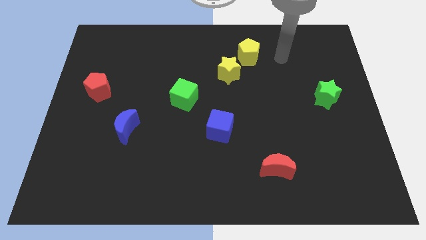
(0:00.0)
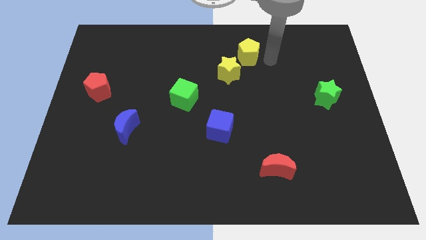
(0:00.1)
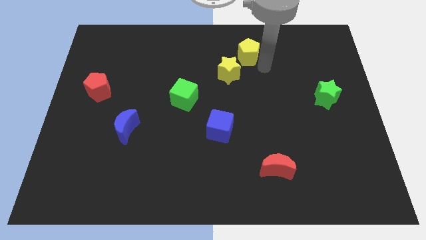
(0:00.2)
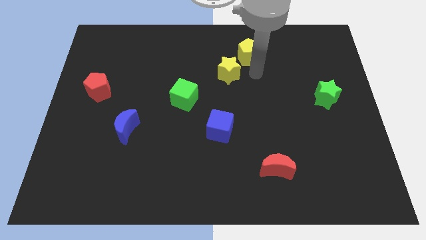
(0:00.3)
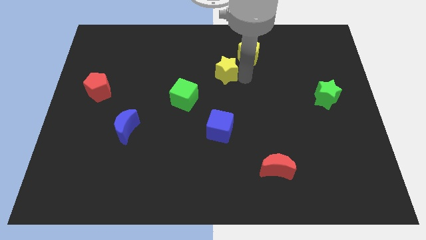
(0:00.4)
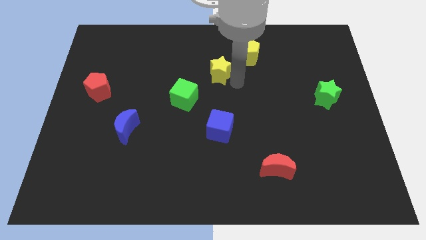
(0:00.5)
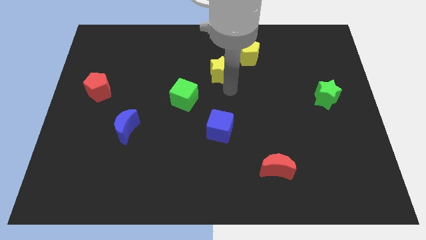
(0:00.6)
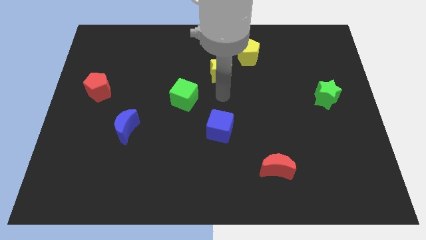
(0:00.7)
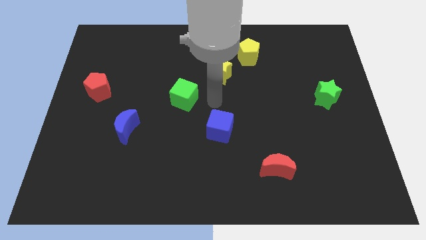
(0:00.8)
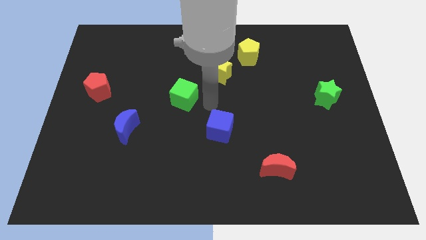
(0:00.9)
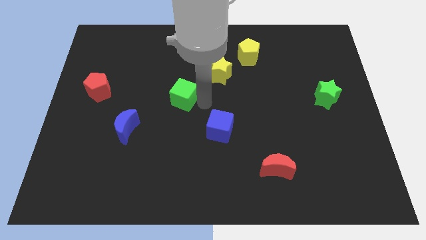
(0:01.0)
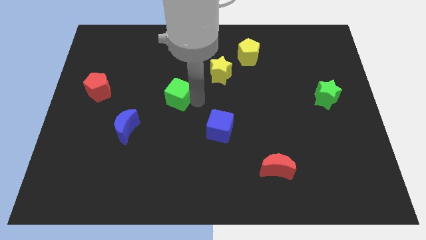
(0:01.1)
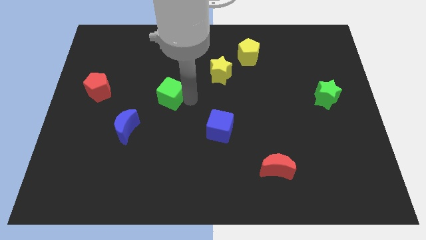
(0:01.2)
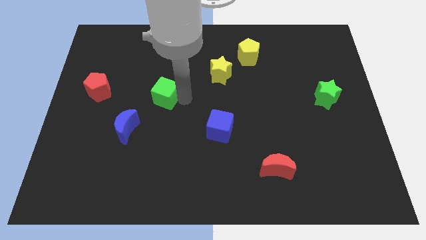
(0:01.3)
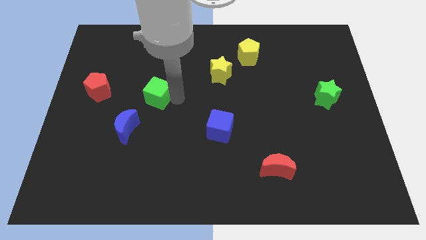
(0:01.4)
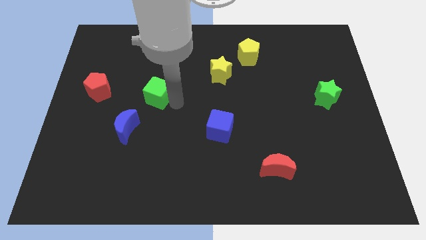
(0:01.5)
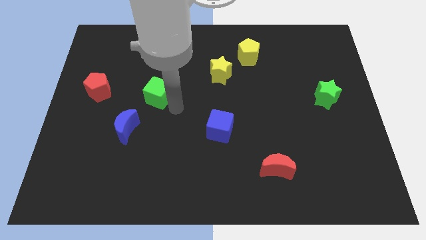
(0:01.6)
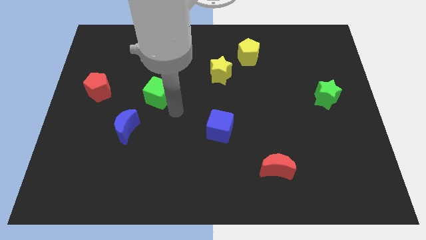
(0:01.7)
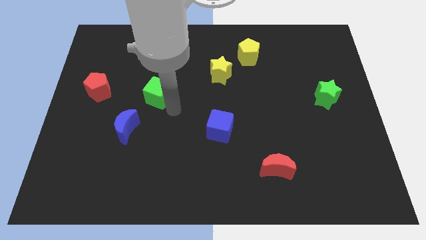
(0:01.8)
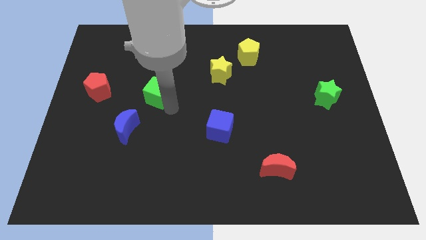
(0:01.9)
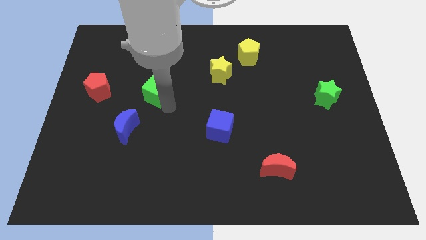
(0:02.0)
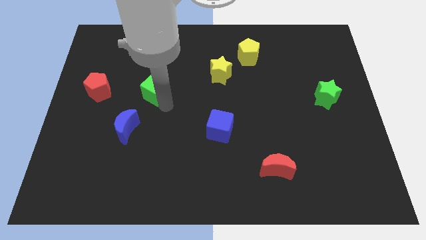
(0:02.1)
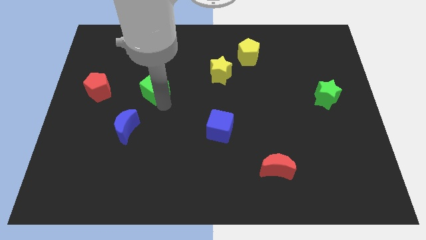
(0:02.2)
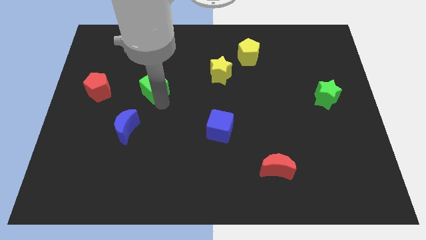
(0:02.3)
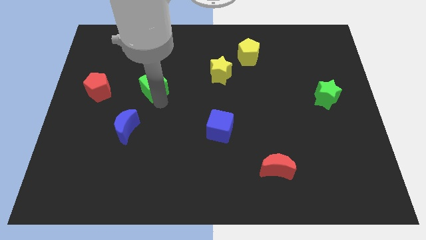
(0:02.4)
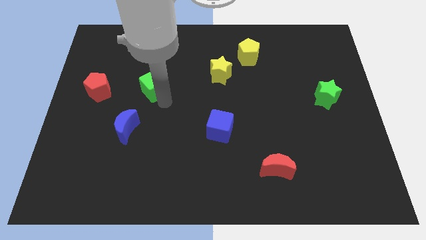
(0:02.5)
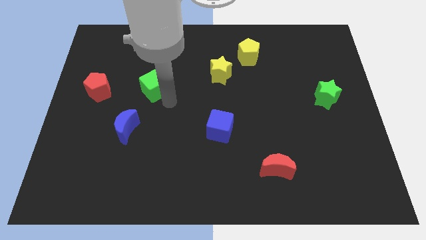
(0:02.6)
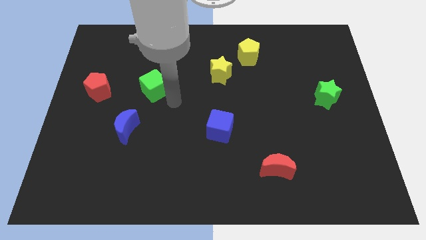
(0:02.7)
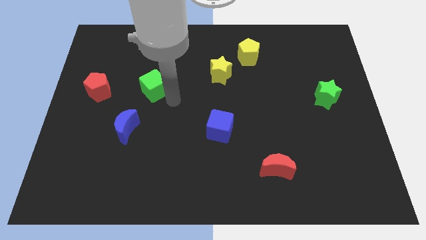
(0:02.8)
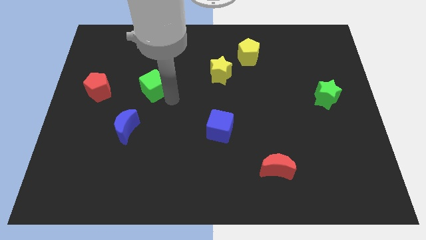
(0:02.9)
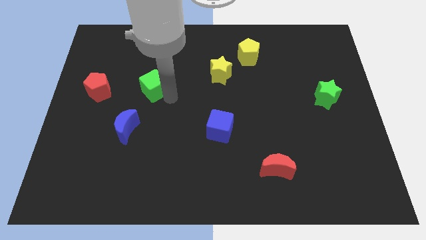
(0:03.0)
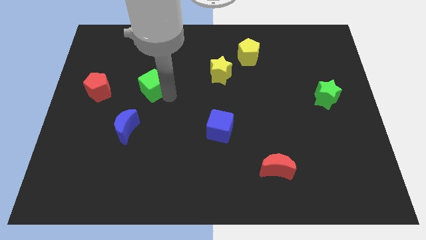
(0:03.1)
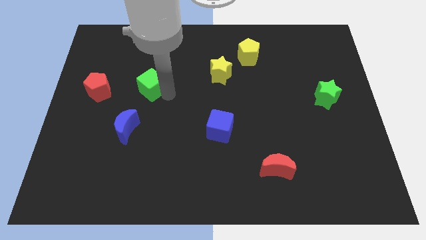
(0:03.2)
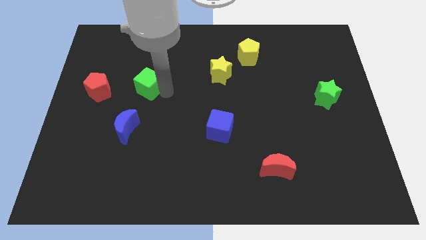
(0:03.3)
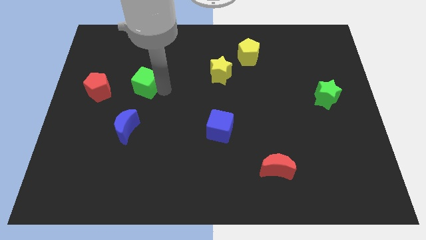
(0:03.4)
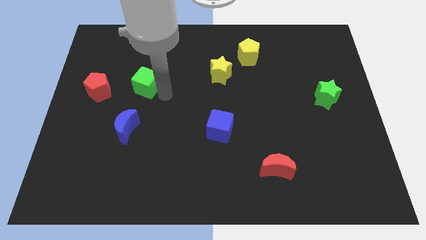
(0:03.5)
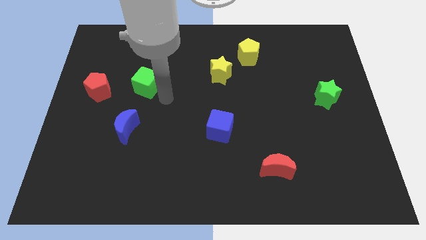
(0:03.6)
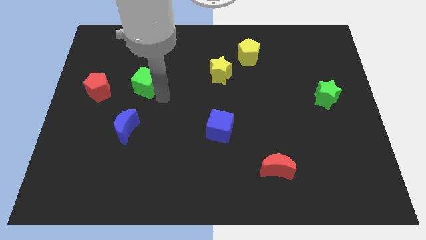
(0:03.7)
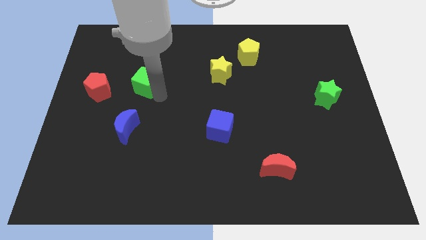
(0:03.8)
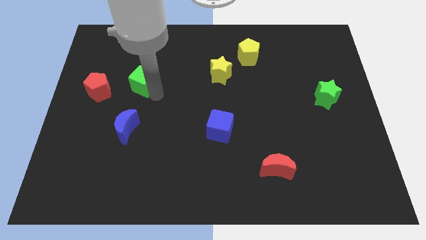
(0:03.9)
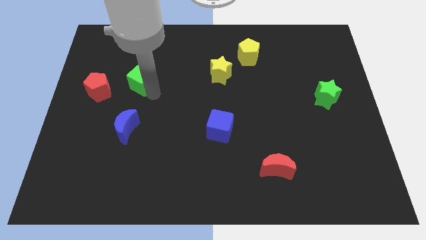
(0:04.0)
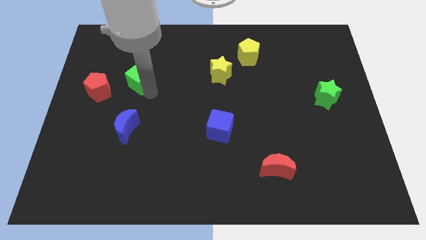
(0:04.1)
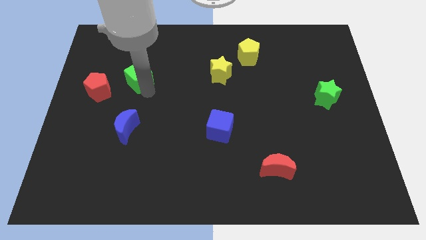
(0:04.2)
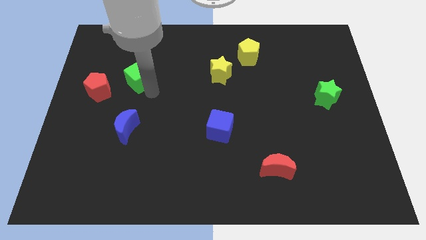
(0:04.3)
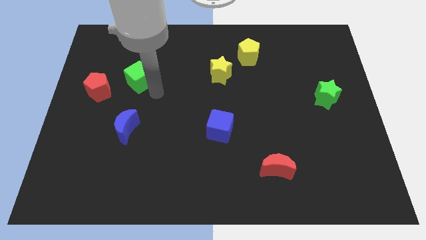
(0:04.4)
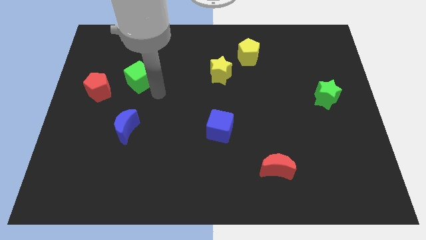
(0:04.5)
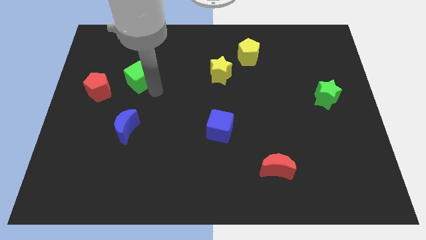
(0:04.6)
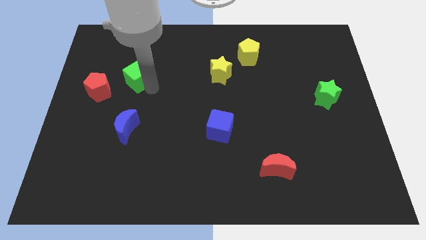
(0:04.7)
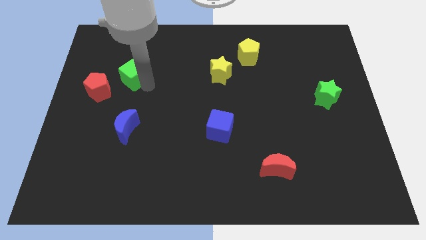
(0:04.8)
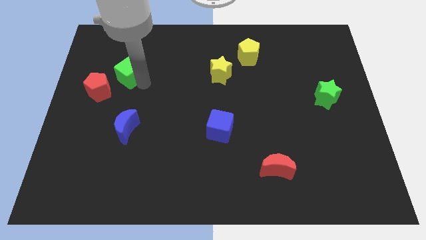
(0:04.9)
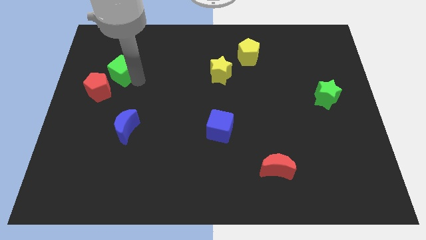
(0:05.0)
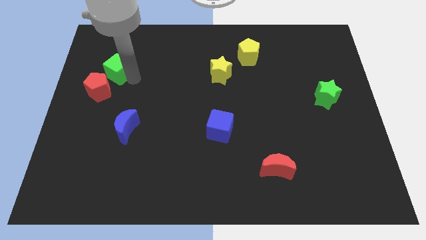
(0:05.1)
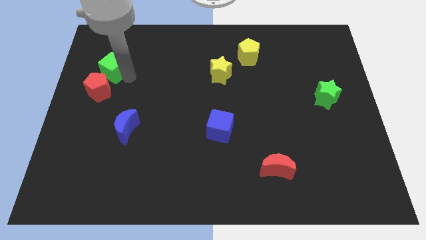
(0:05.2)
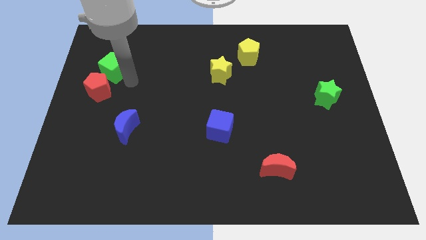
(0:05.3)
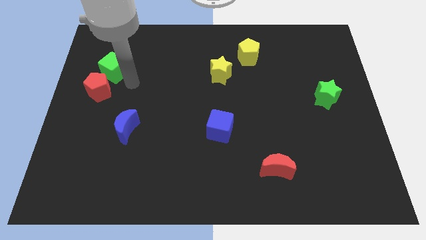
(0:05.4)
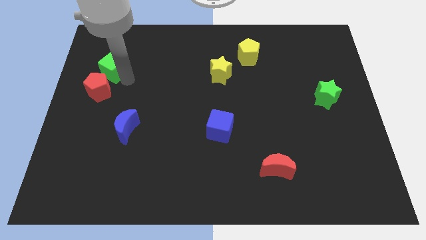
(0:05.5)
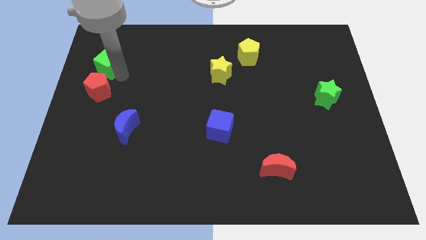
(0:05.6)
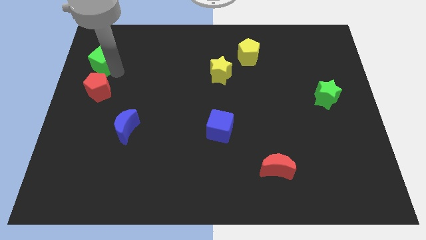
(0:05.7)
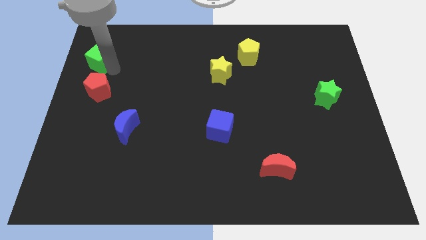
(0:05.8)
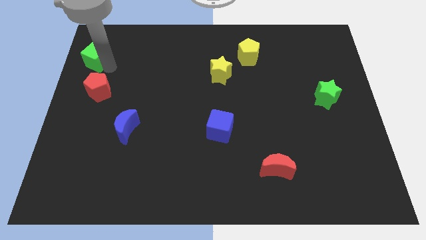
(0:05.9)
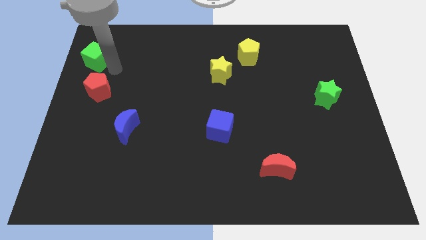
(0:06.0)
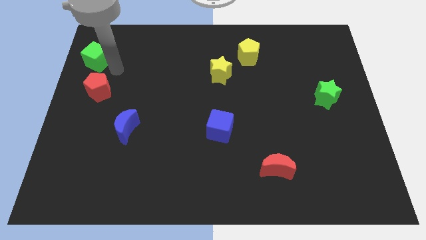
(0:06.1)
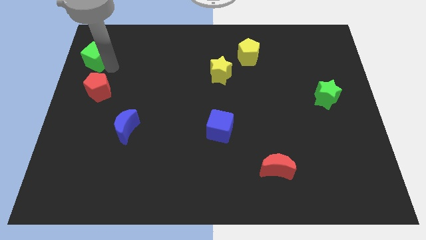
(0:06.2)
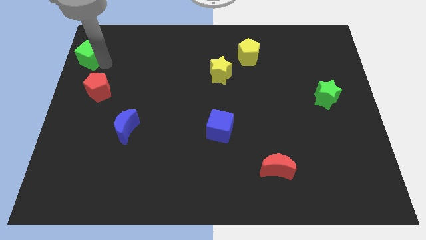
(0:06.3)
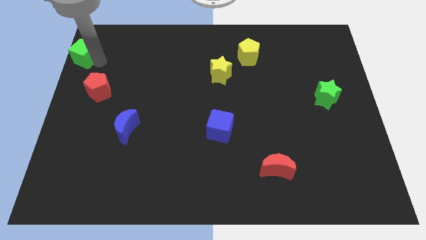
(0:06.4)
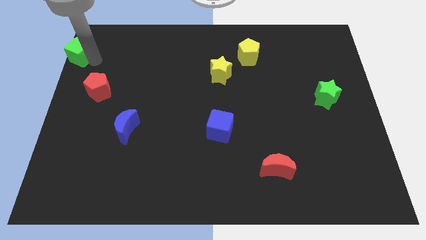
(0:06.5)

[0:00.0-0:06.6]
push the green cube to the top left of the board
